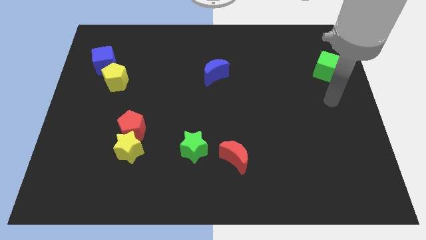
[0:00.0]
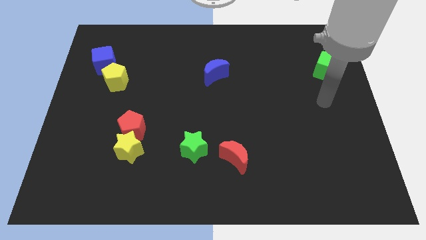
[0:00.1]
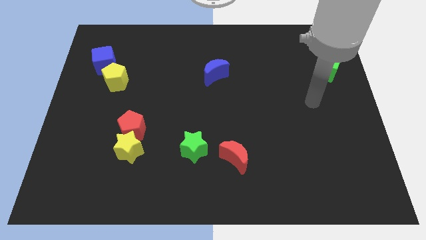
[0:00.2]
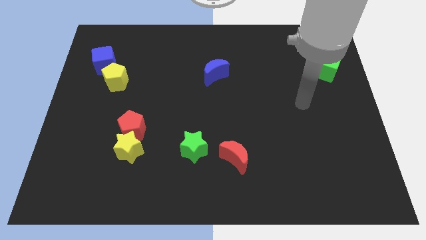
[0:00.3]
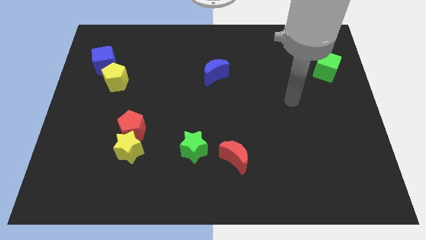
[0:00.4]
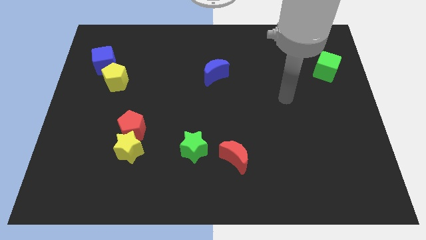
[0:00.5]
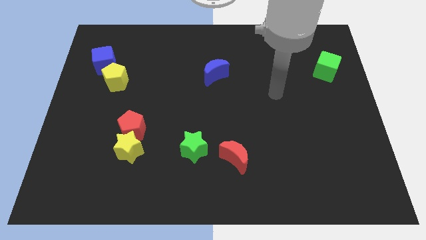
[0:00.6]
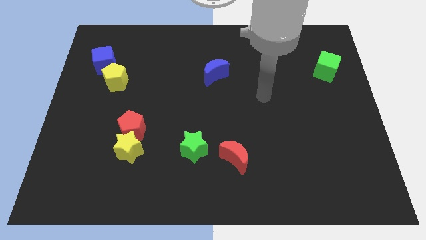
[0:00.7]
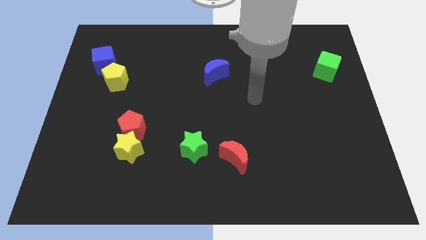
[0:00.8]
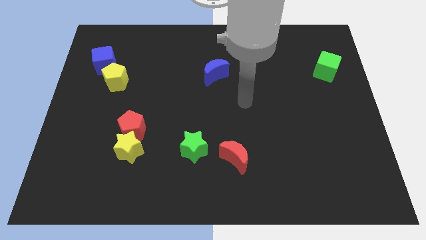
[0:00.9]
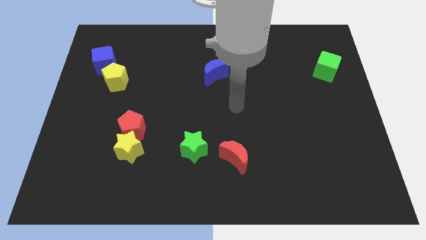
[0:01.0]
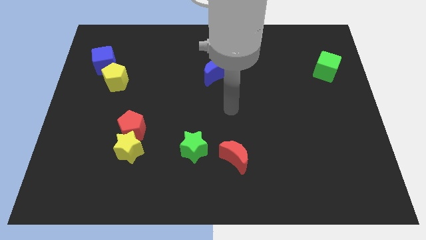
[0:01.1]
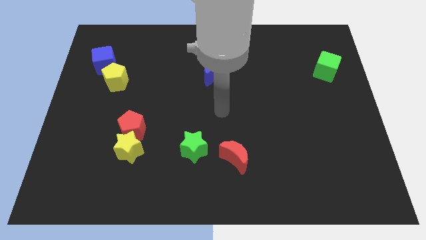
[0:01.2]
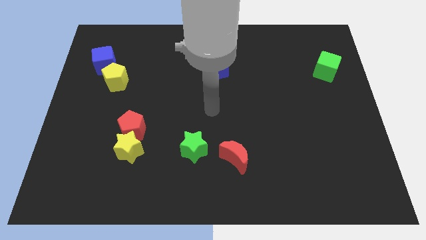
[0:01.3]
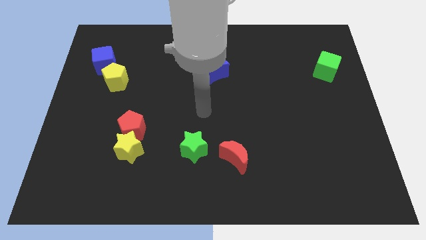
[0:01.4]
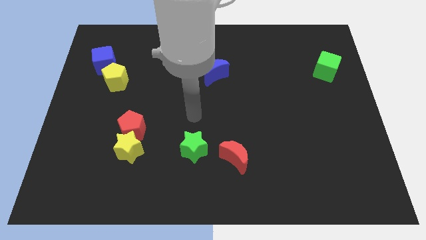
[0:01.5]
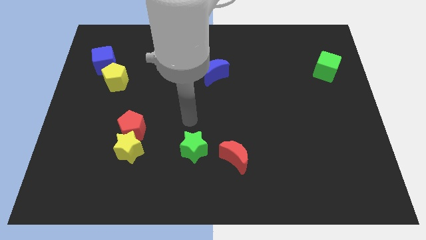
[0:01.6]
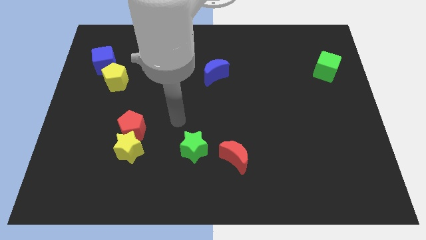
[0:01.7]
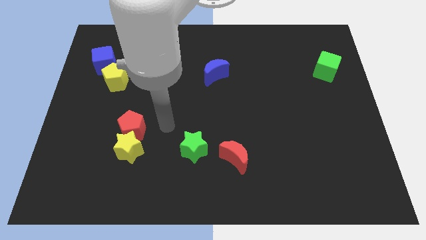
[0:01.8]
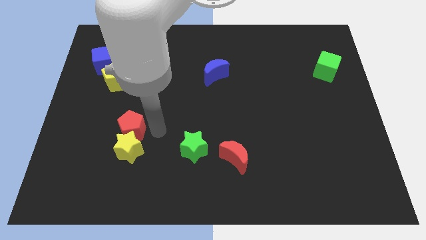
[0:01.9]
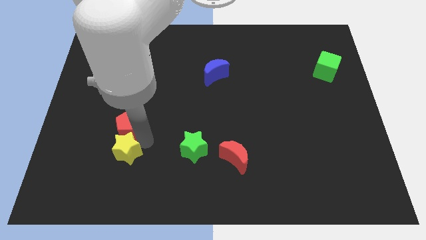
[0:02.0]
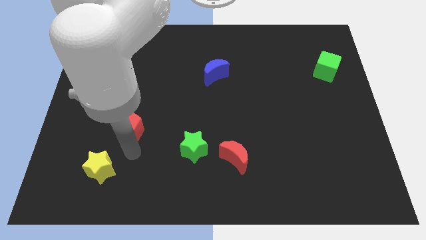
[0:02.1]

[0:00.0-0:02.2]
pull the red pentagon apart from the yellow star

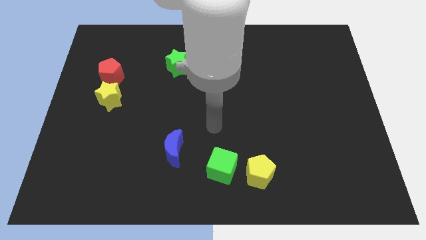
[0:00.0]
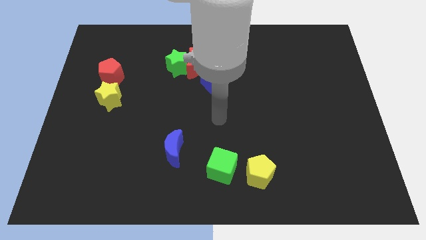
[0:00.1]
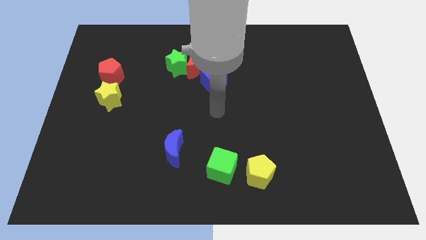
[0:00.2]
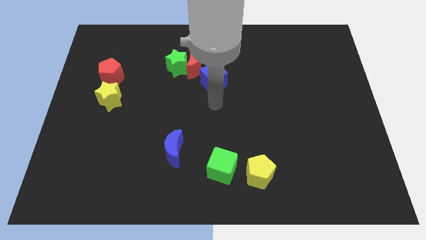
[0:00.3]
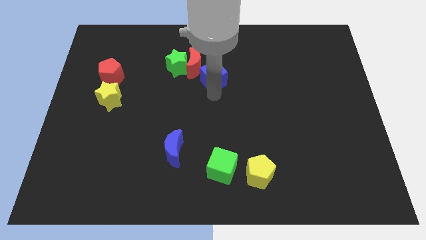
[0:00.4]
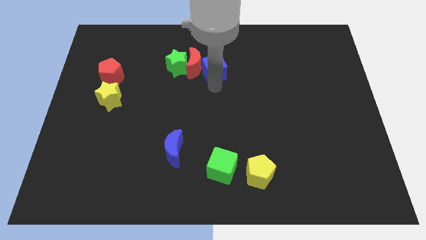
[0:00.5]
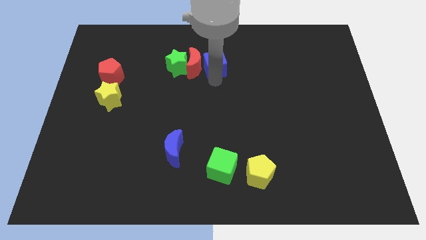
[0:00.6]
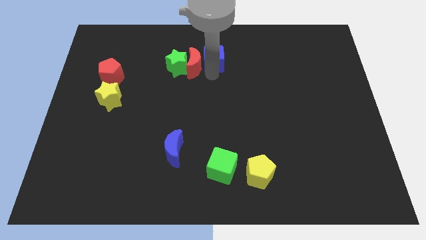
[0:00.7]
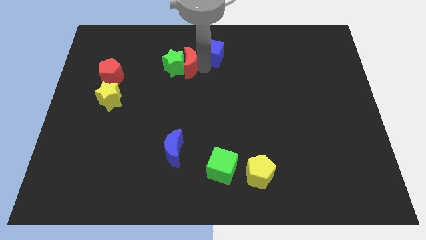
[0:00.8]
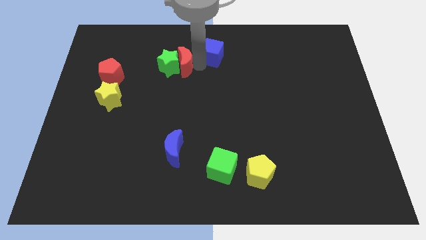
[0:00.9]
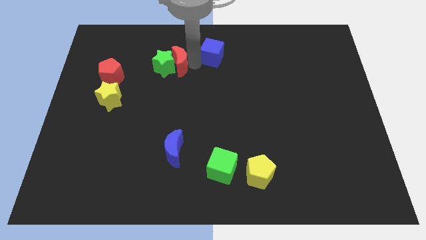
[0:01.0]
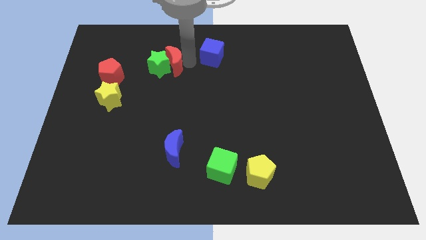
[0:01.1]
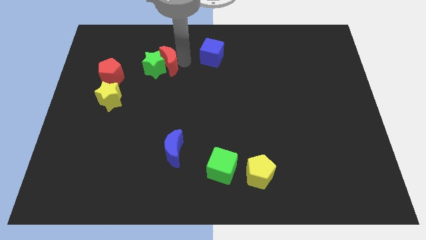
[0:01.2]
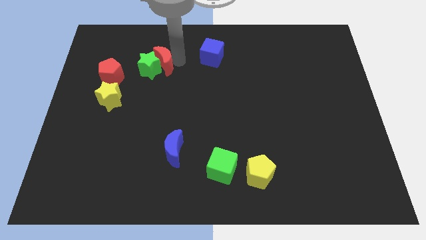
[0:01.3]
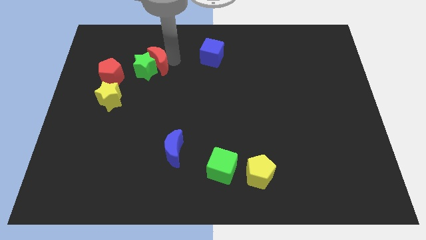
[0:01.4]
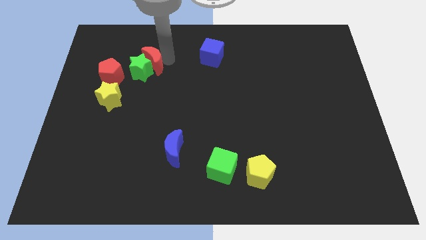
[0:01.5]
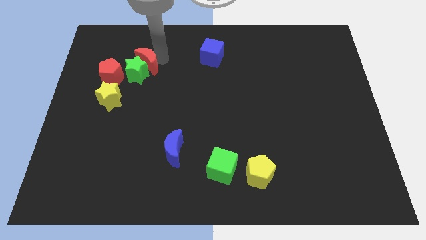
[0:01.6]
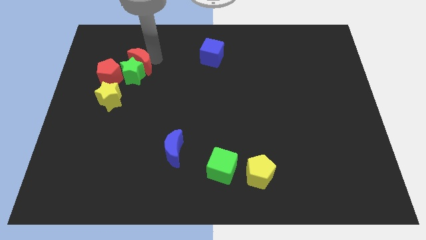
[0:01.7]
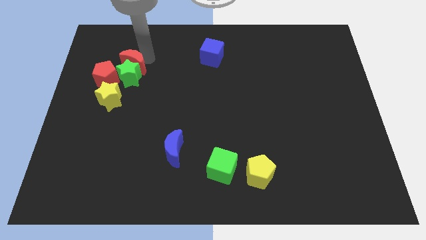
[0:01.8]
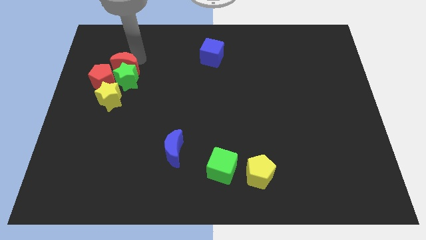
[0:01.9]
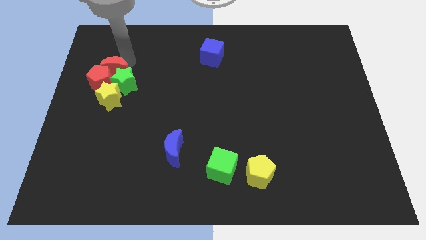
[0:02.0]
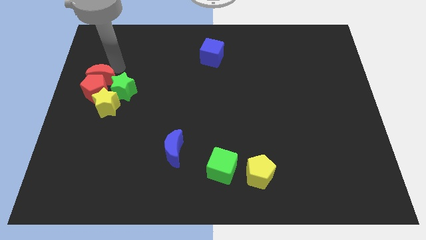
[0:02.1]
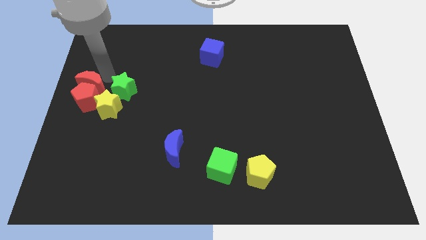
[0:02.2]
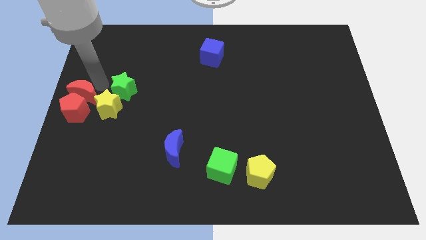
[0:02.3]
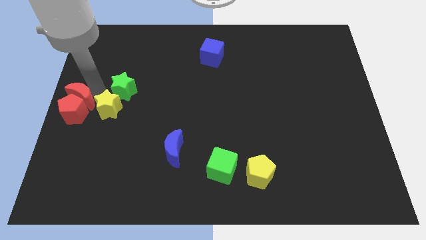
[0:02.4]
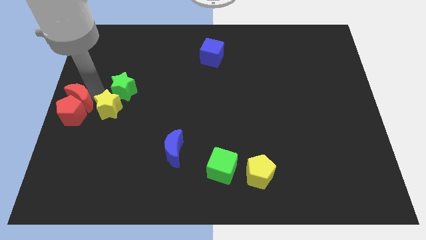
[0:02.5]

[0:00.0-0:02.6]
move the green star away from the red moon

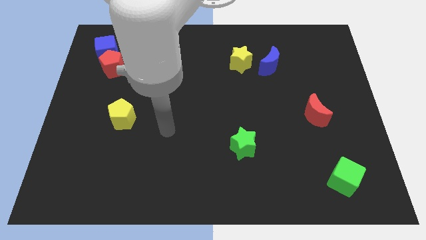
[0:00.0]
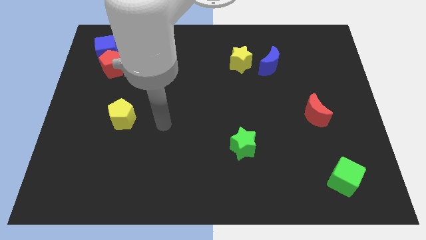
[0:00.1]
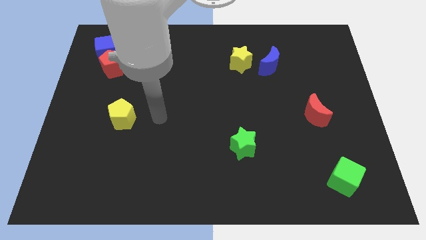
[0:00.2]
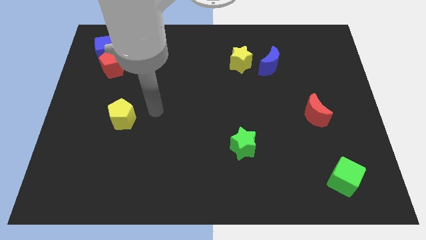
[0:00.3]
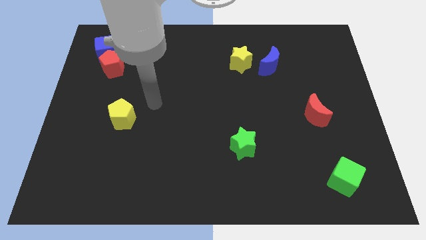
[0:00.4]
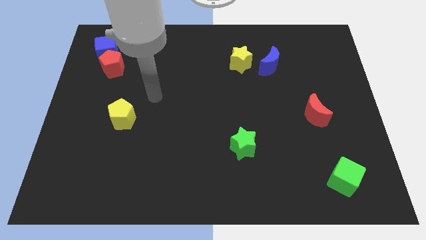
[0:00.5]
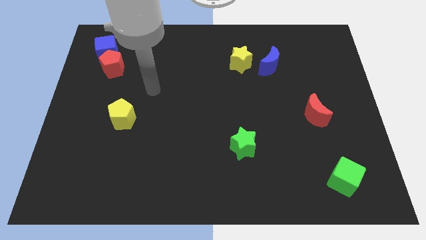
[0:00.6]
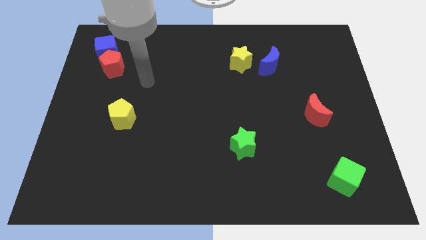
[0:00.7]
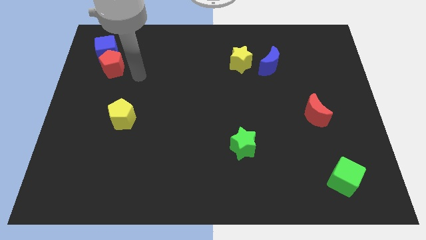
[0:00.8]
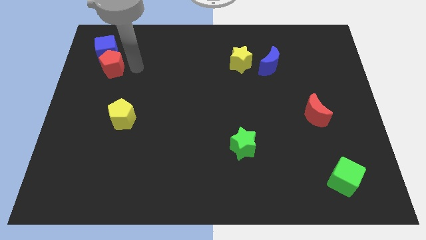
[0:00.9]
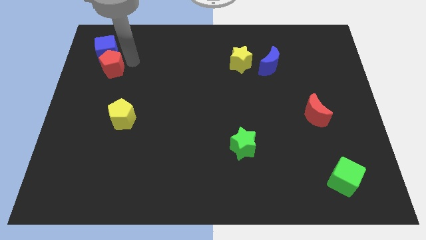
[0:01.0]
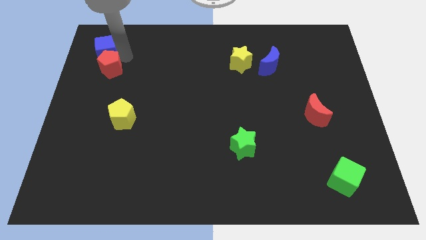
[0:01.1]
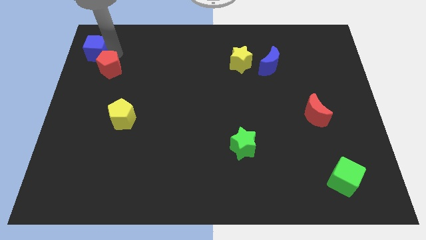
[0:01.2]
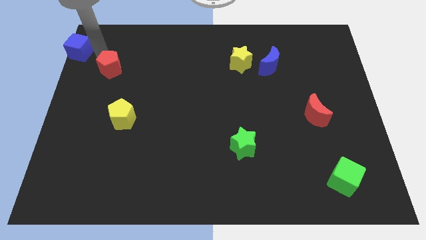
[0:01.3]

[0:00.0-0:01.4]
pull the red pentagon apart from the blue cube

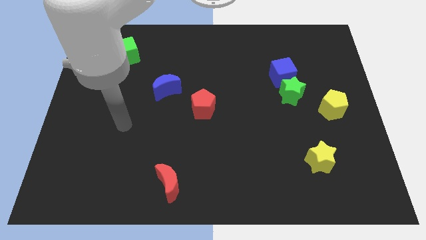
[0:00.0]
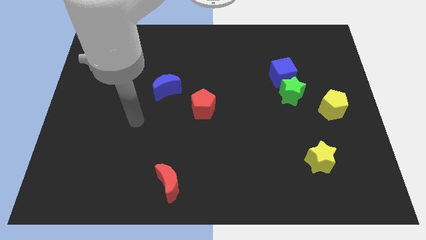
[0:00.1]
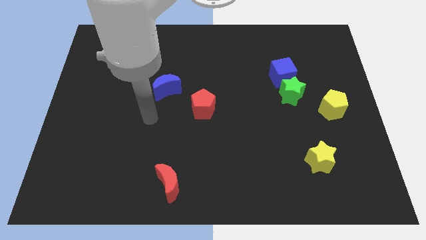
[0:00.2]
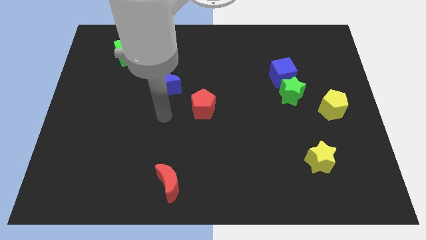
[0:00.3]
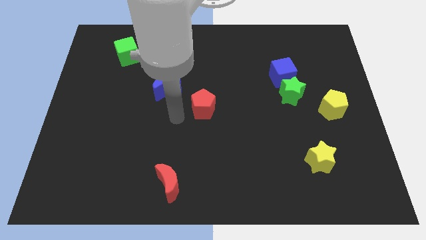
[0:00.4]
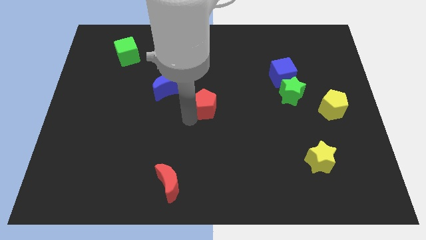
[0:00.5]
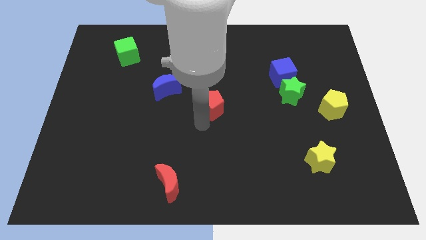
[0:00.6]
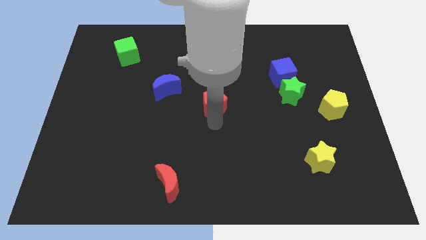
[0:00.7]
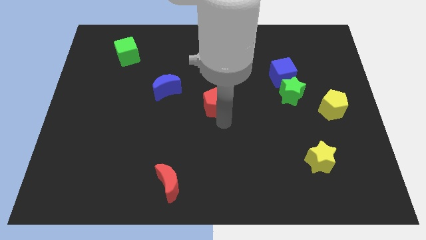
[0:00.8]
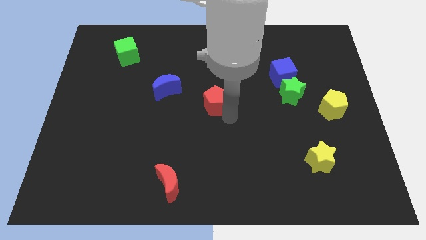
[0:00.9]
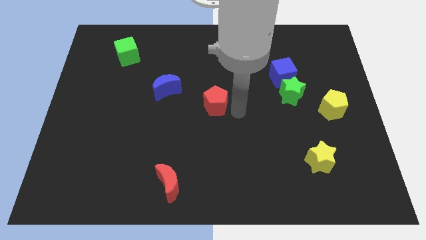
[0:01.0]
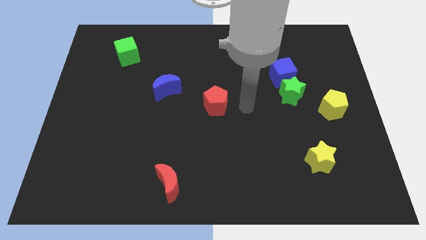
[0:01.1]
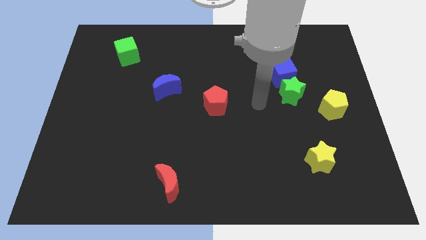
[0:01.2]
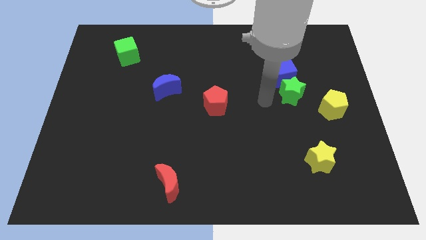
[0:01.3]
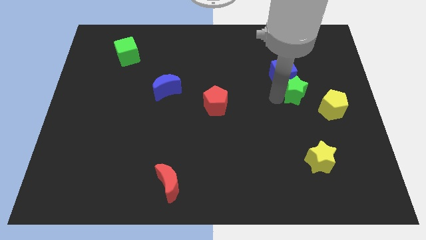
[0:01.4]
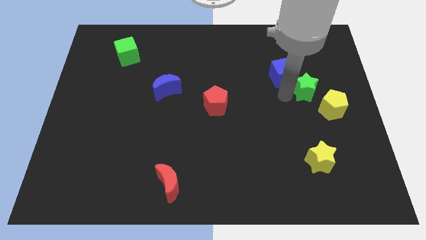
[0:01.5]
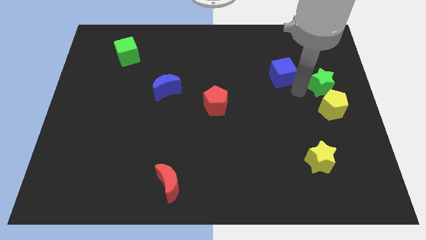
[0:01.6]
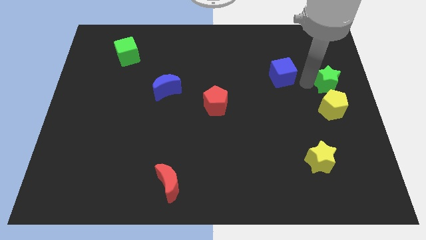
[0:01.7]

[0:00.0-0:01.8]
move the blue cube away from the green star

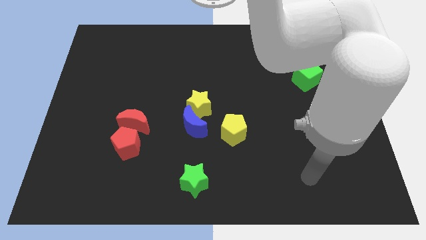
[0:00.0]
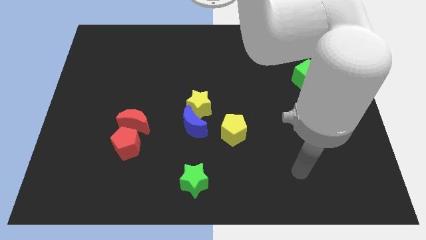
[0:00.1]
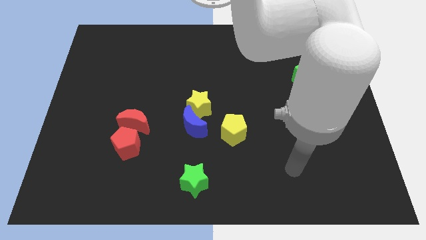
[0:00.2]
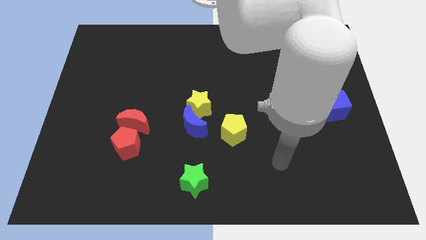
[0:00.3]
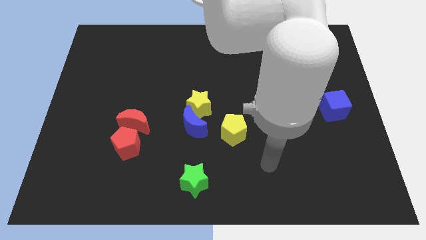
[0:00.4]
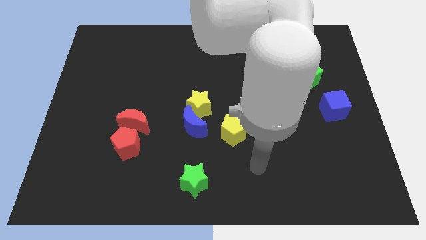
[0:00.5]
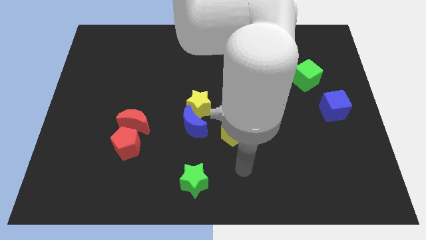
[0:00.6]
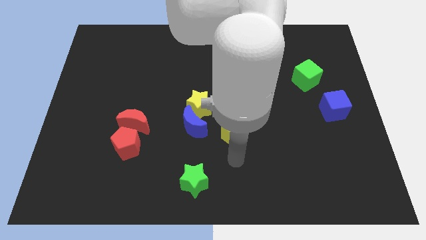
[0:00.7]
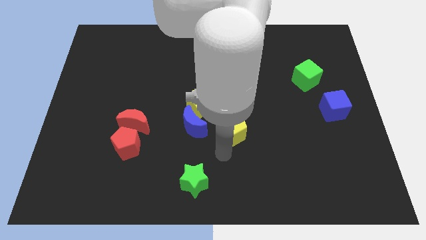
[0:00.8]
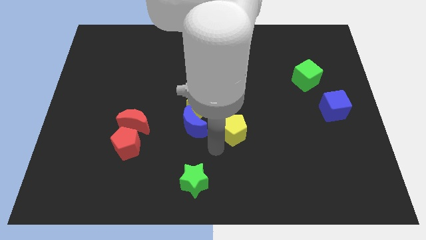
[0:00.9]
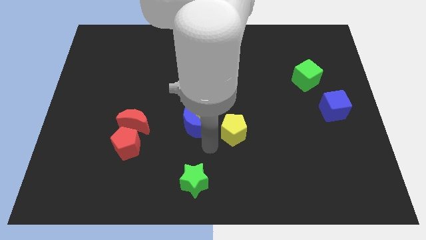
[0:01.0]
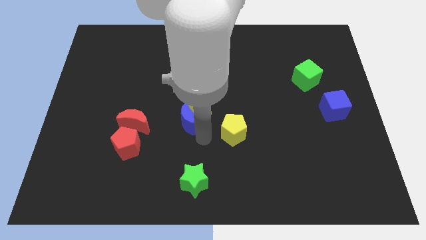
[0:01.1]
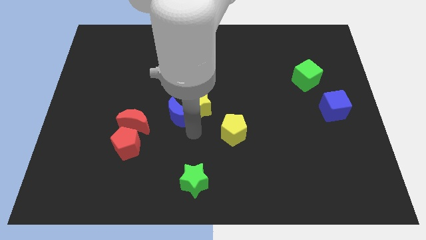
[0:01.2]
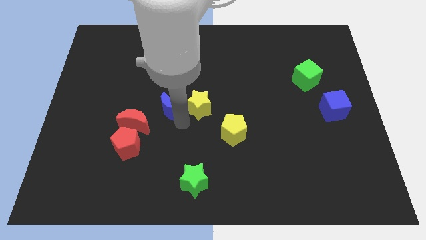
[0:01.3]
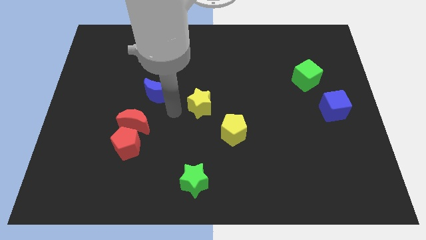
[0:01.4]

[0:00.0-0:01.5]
pull the yellow star apart from the blue moon
